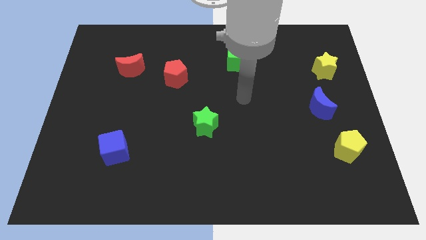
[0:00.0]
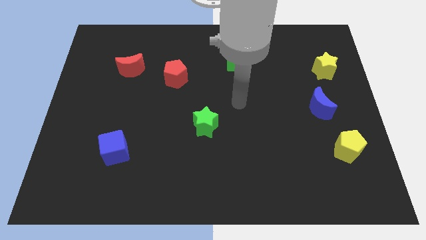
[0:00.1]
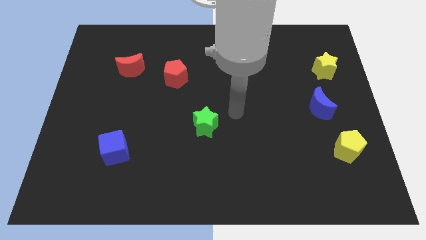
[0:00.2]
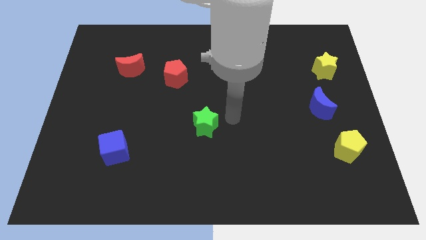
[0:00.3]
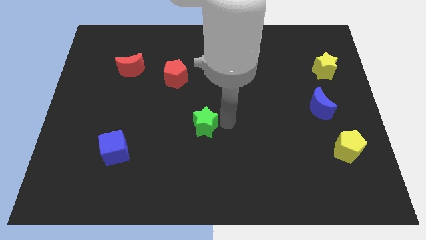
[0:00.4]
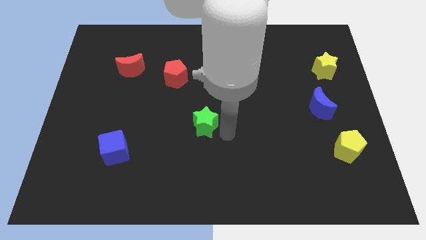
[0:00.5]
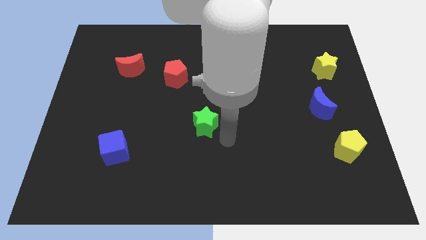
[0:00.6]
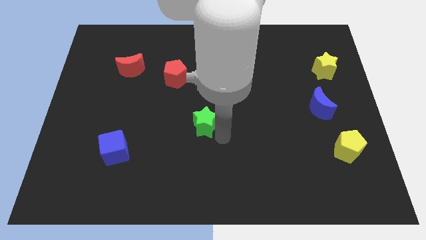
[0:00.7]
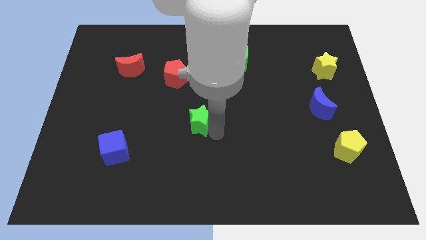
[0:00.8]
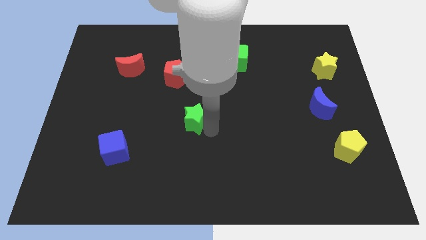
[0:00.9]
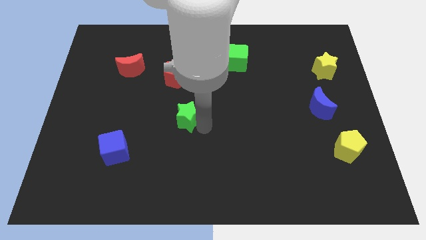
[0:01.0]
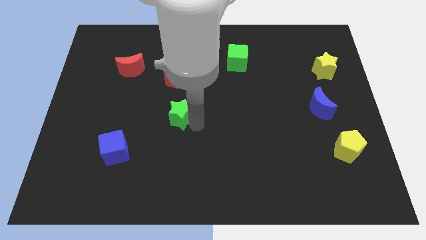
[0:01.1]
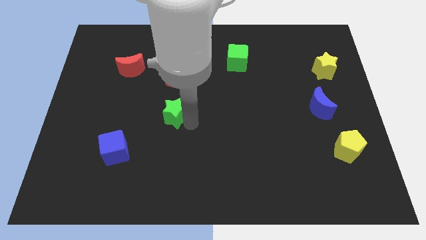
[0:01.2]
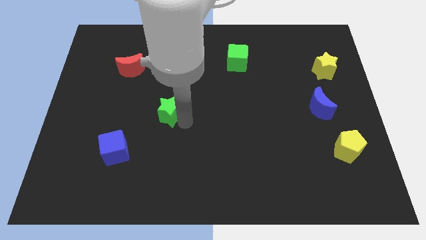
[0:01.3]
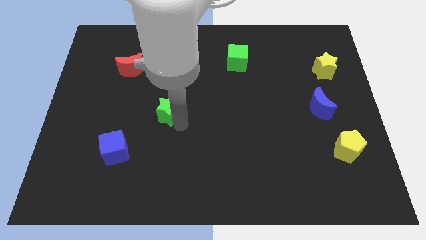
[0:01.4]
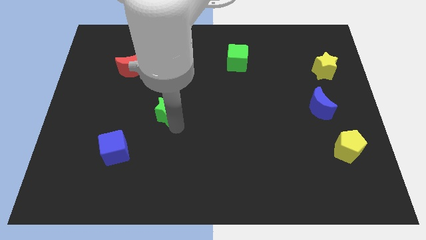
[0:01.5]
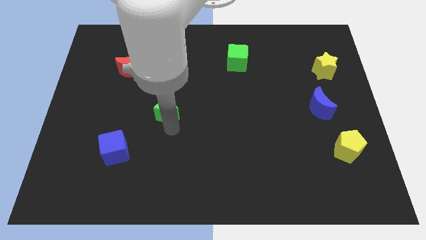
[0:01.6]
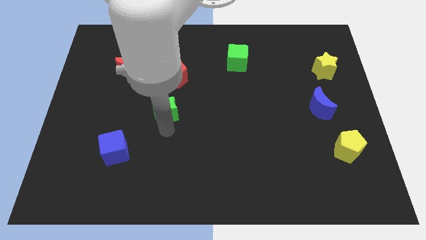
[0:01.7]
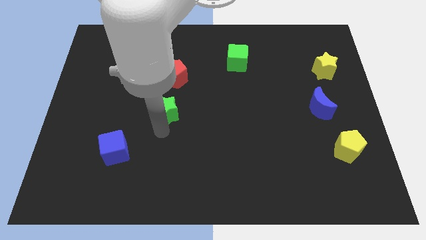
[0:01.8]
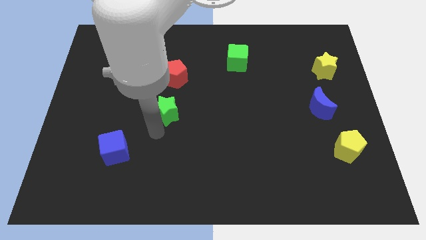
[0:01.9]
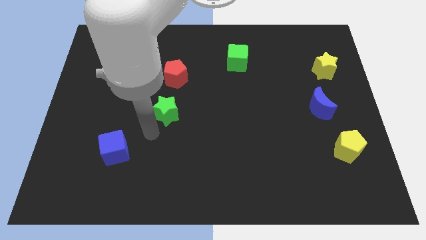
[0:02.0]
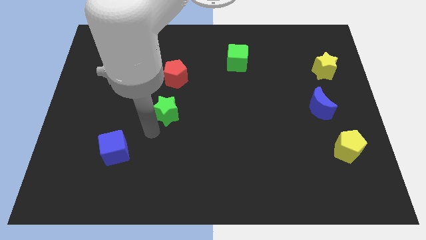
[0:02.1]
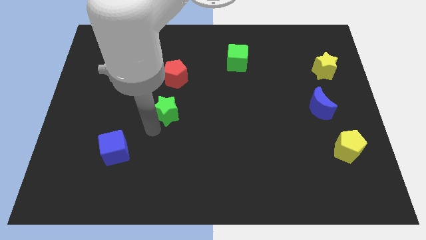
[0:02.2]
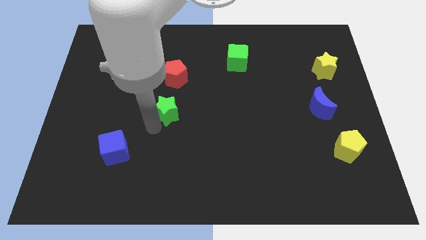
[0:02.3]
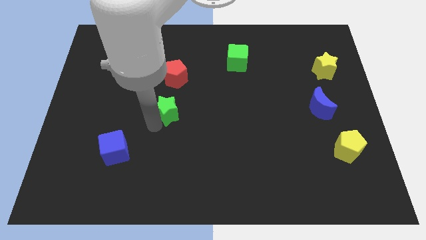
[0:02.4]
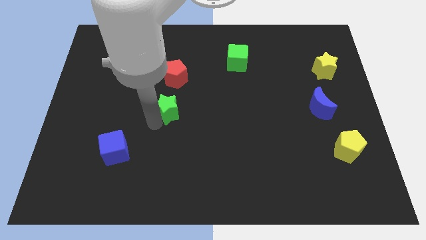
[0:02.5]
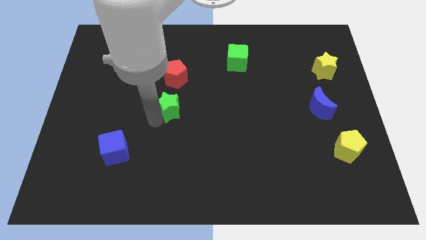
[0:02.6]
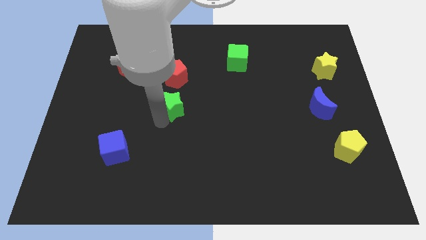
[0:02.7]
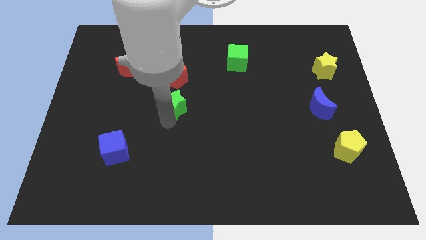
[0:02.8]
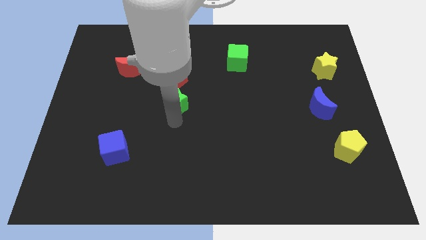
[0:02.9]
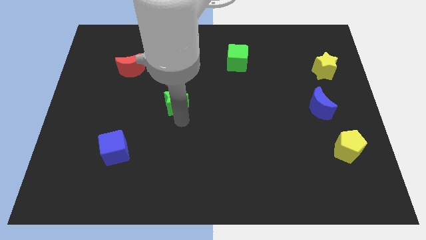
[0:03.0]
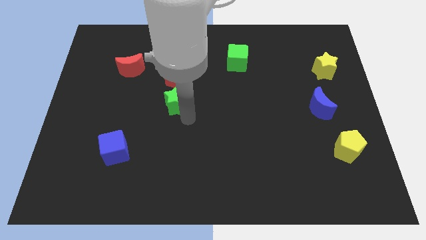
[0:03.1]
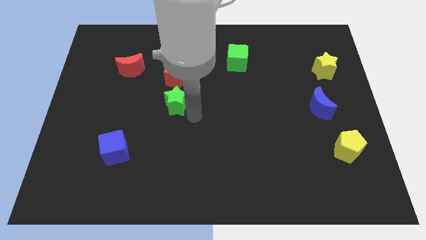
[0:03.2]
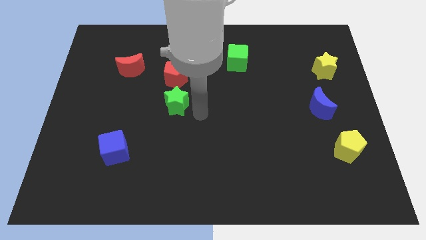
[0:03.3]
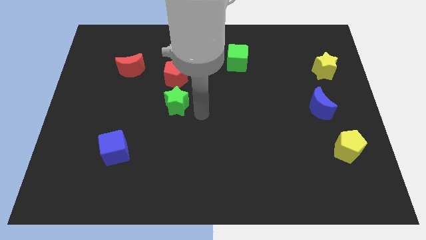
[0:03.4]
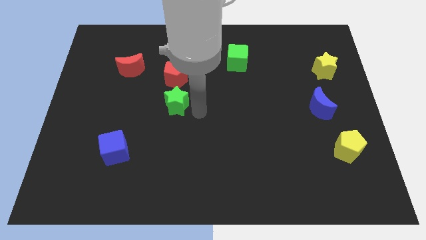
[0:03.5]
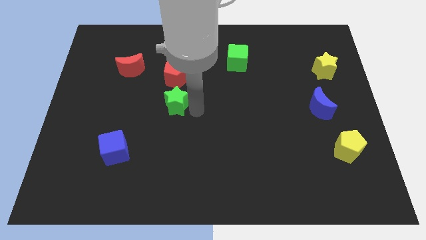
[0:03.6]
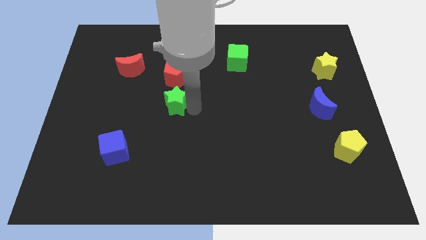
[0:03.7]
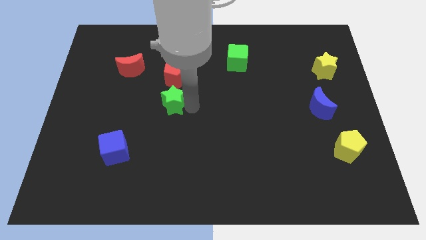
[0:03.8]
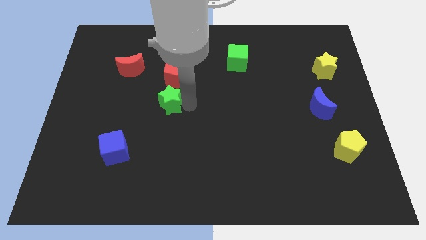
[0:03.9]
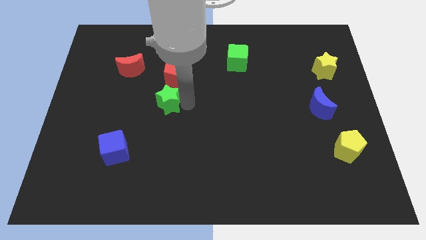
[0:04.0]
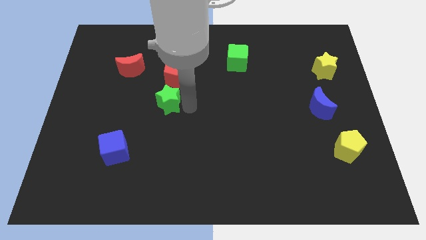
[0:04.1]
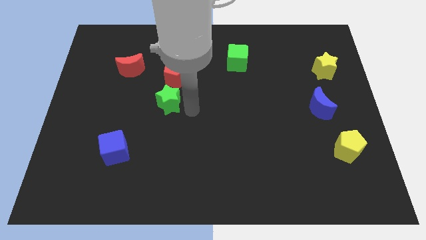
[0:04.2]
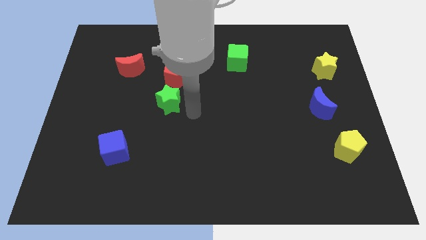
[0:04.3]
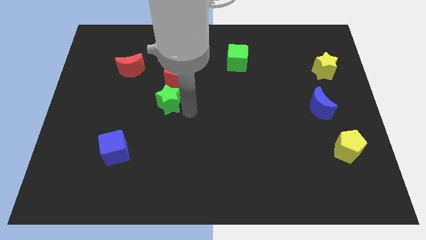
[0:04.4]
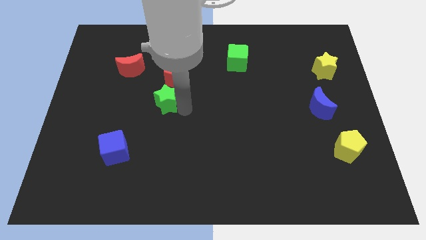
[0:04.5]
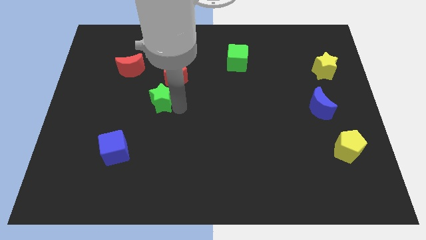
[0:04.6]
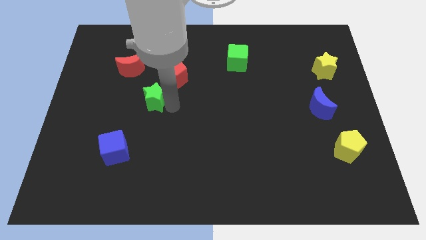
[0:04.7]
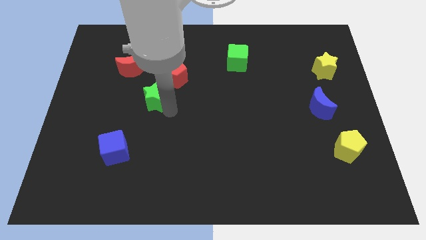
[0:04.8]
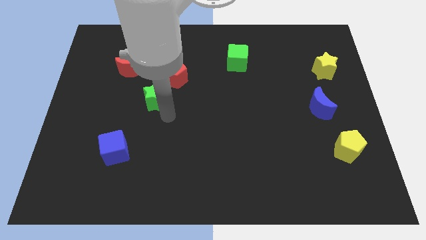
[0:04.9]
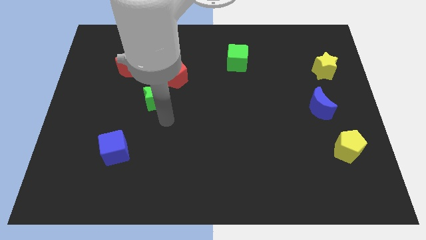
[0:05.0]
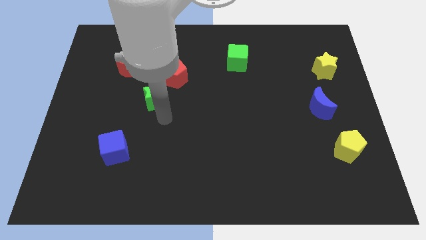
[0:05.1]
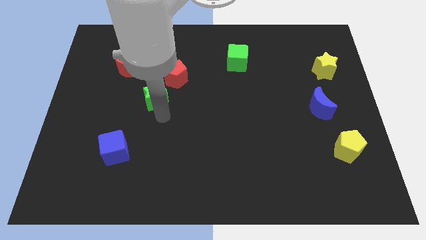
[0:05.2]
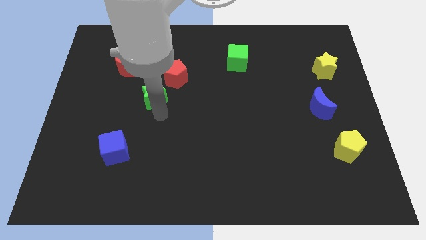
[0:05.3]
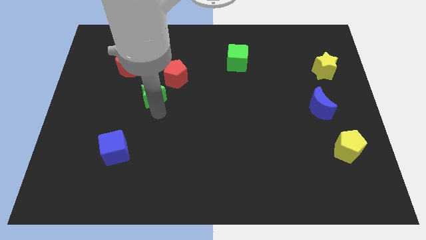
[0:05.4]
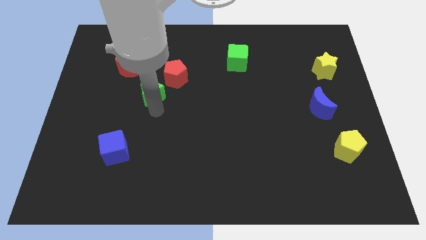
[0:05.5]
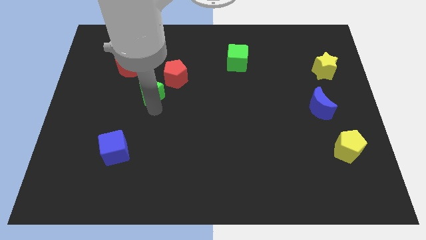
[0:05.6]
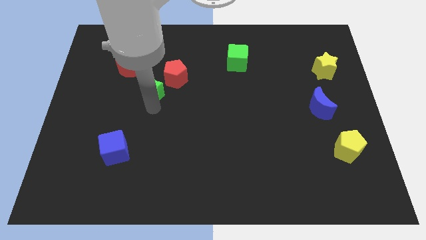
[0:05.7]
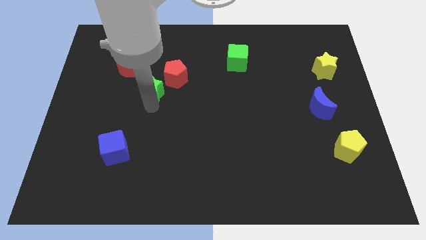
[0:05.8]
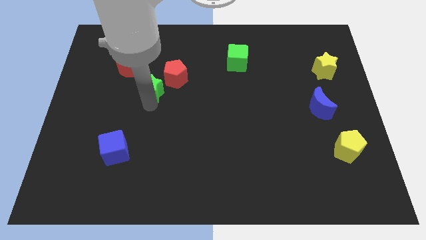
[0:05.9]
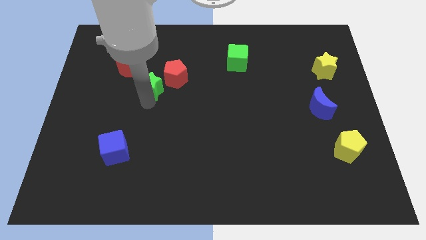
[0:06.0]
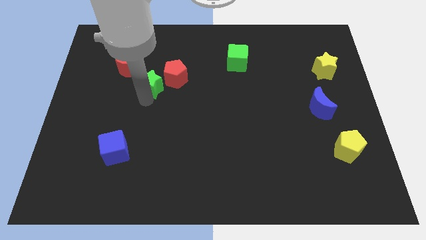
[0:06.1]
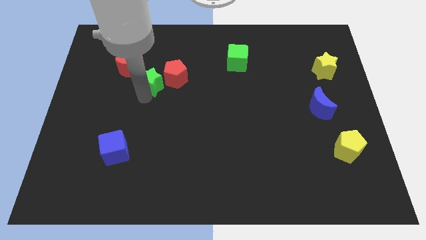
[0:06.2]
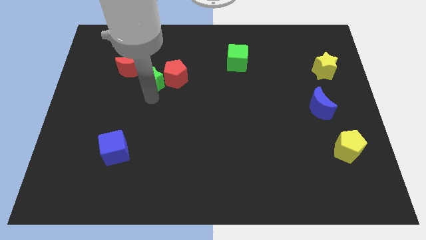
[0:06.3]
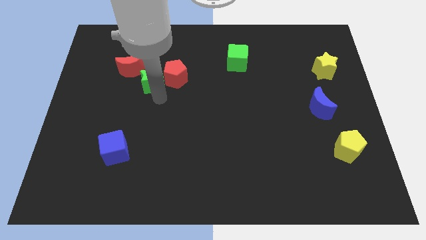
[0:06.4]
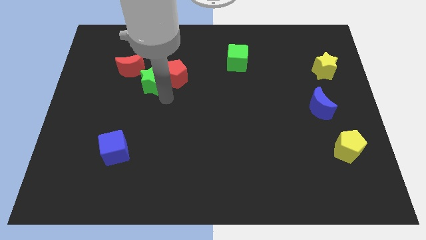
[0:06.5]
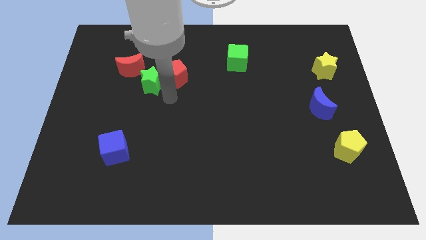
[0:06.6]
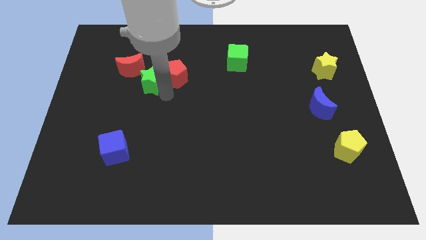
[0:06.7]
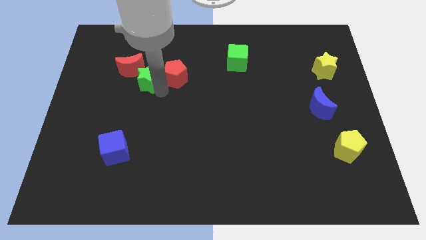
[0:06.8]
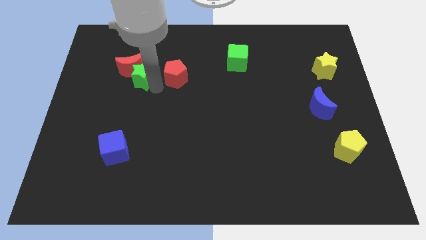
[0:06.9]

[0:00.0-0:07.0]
slide the green star next to the red moon

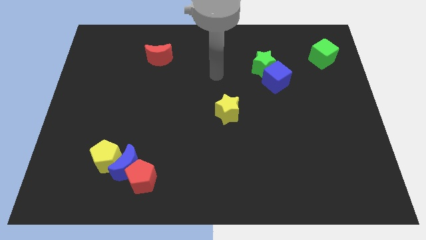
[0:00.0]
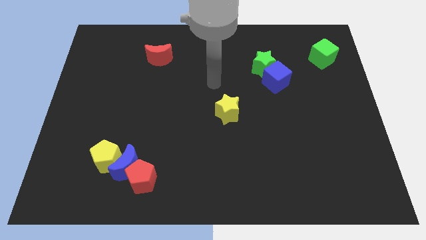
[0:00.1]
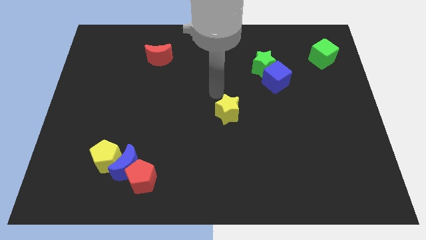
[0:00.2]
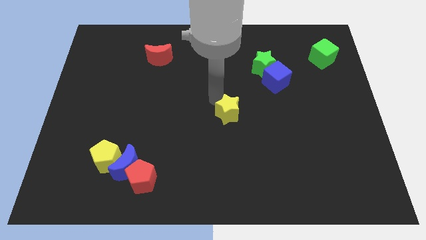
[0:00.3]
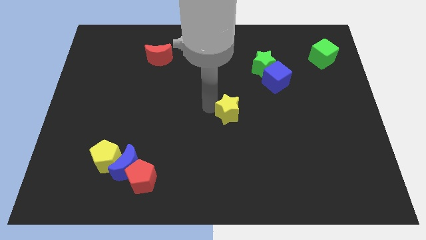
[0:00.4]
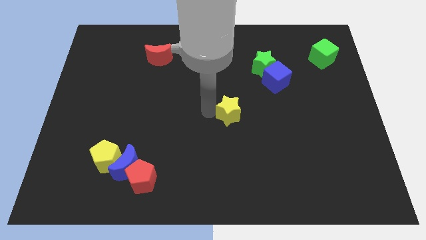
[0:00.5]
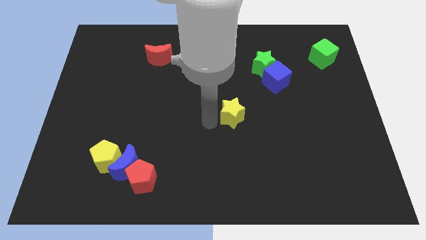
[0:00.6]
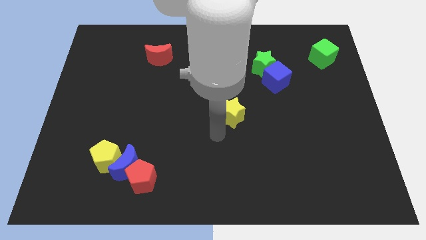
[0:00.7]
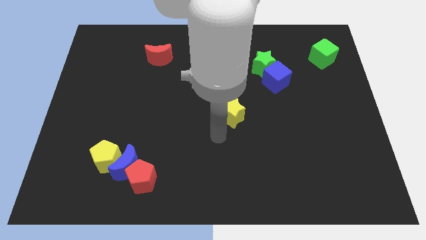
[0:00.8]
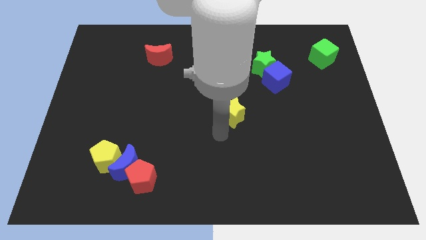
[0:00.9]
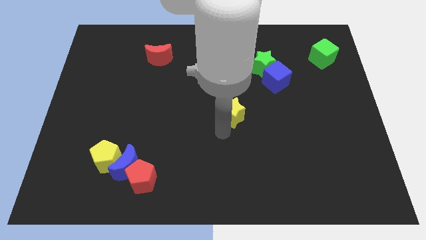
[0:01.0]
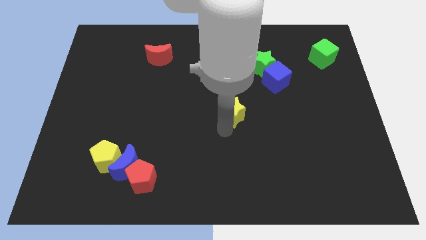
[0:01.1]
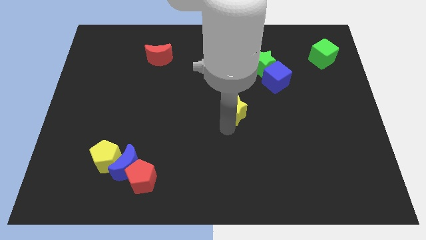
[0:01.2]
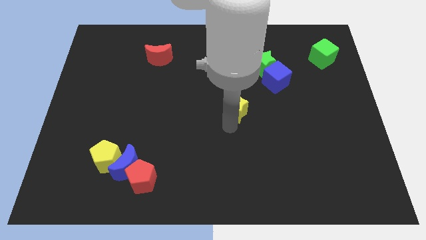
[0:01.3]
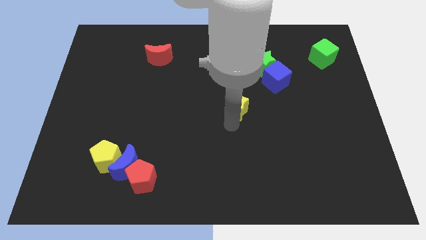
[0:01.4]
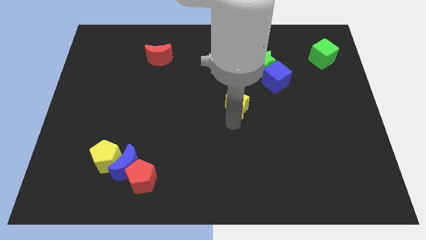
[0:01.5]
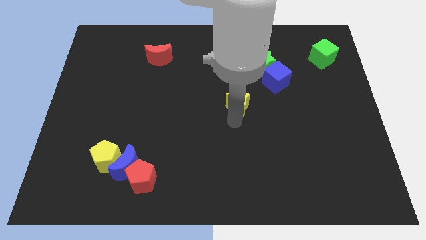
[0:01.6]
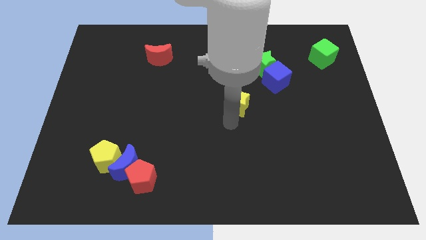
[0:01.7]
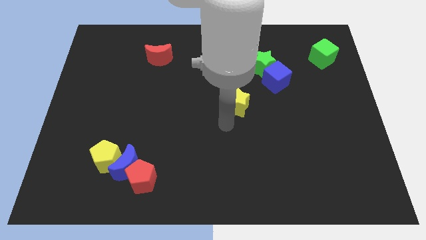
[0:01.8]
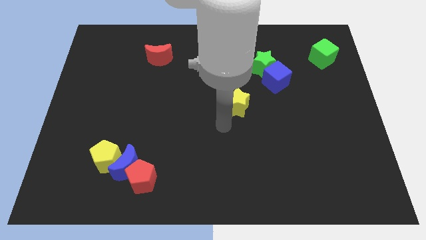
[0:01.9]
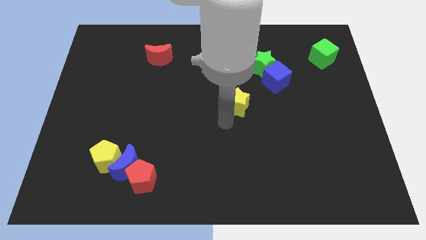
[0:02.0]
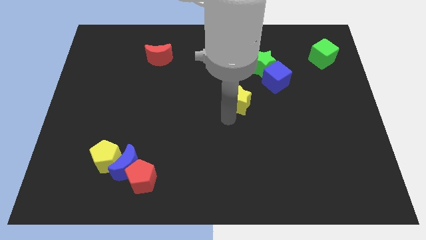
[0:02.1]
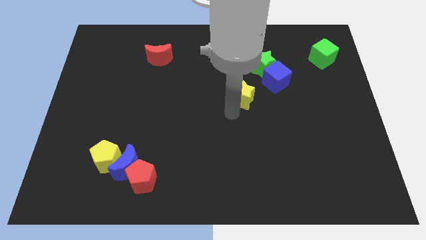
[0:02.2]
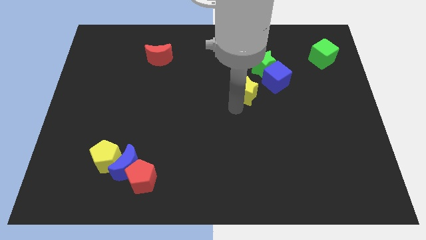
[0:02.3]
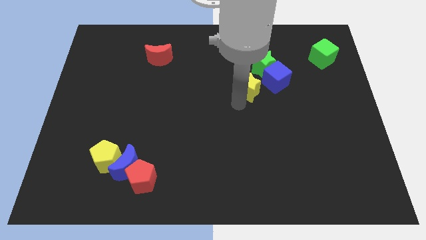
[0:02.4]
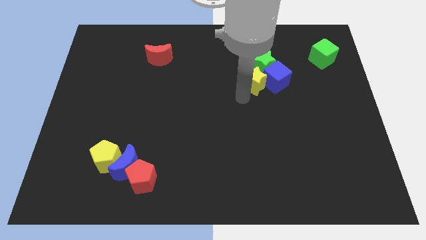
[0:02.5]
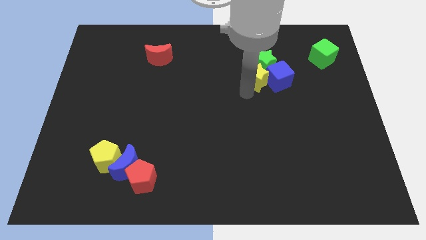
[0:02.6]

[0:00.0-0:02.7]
push the yellow star towards the green star
